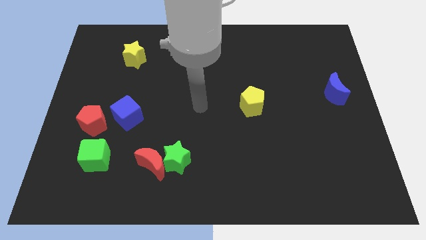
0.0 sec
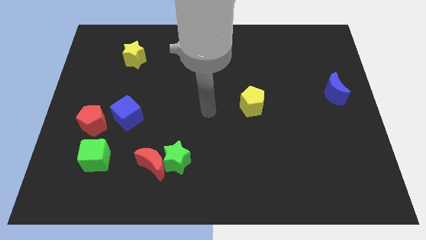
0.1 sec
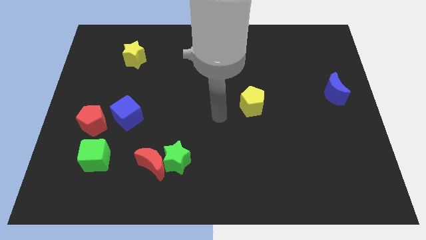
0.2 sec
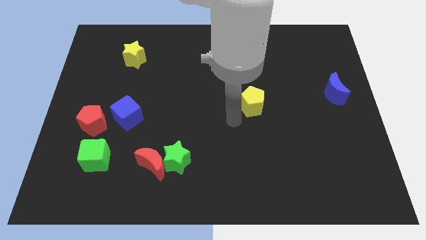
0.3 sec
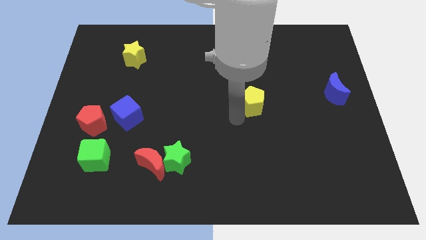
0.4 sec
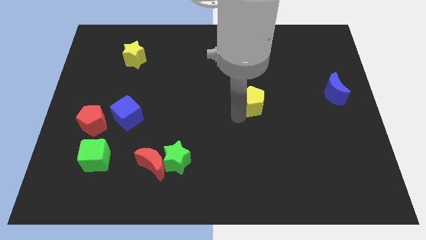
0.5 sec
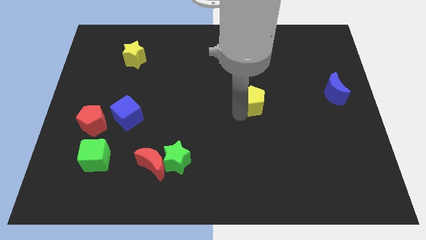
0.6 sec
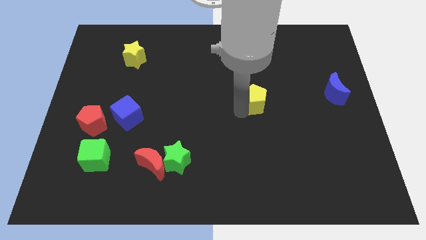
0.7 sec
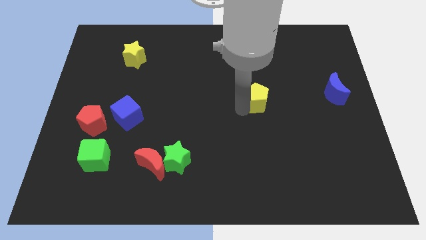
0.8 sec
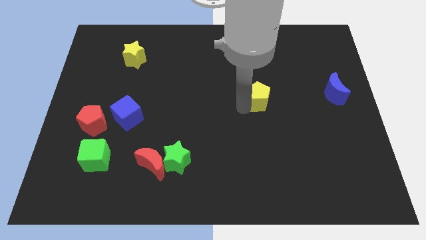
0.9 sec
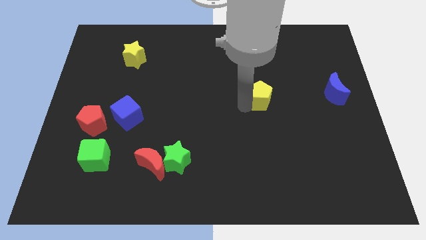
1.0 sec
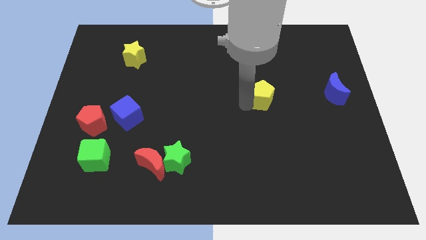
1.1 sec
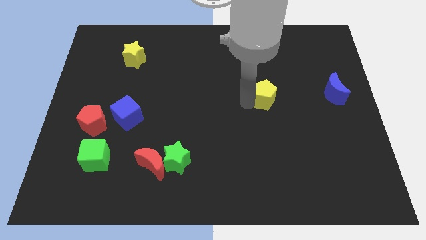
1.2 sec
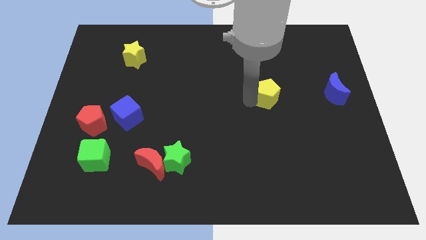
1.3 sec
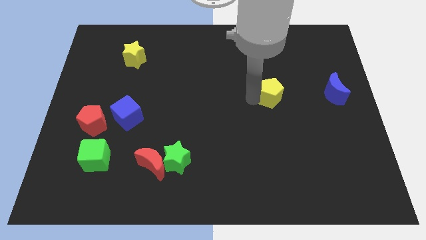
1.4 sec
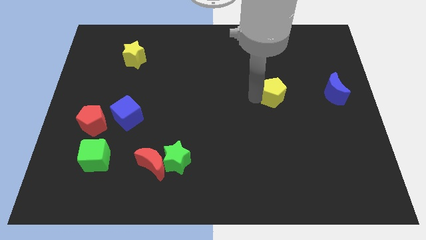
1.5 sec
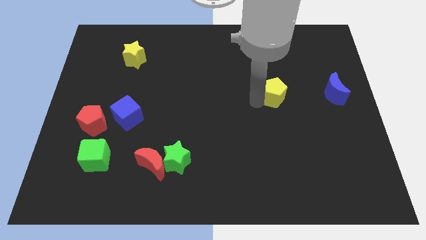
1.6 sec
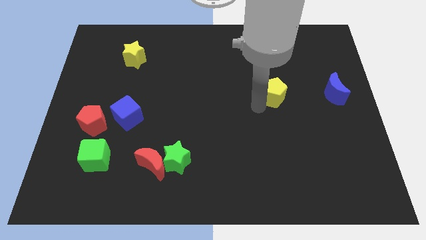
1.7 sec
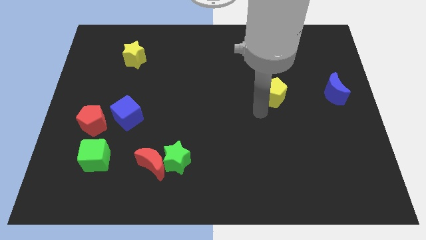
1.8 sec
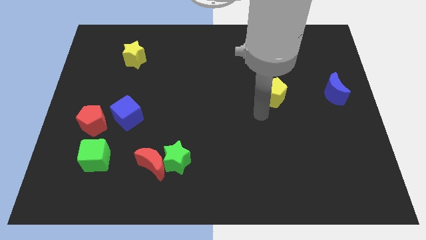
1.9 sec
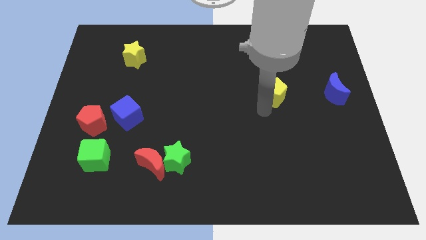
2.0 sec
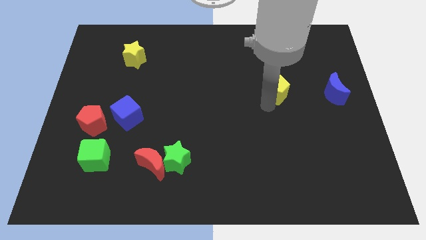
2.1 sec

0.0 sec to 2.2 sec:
move the yellow pentagon diagonally up and right a little bit

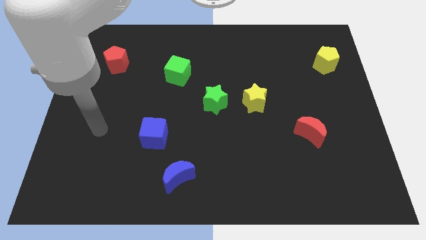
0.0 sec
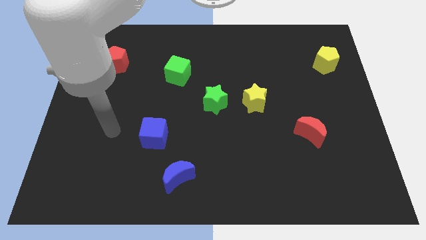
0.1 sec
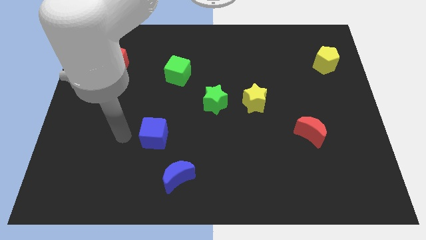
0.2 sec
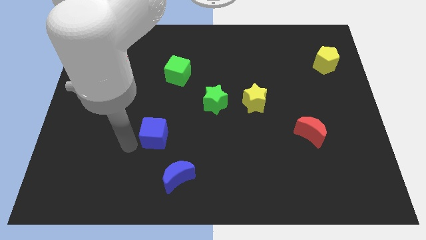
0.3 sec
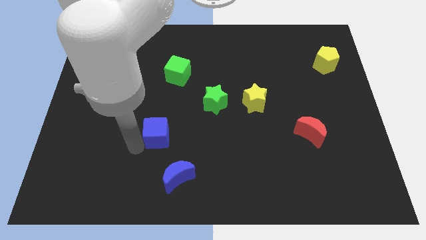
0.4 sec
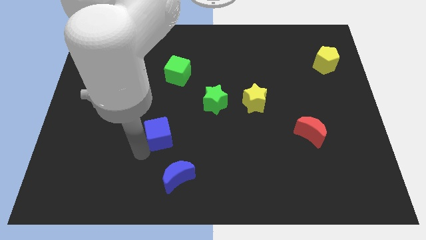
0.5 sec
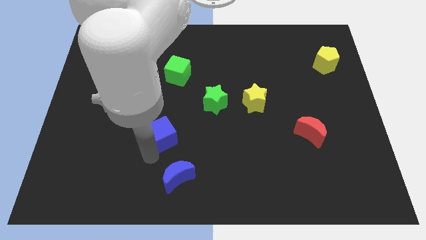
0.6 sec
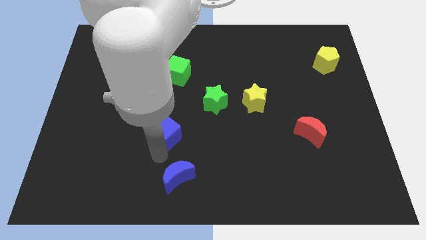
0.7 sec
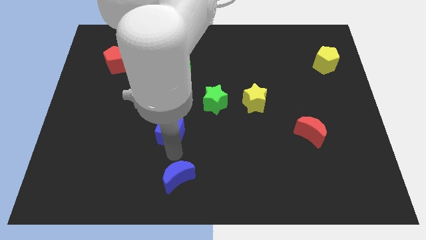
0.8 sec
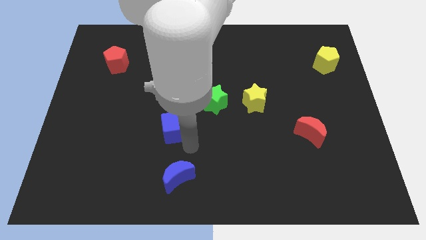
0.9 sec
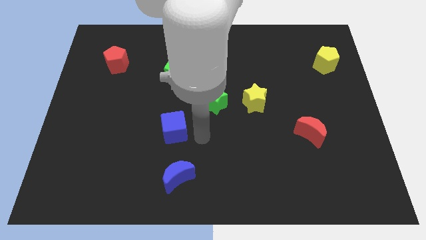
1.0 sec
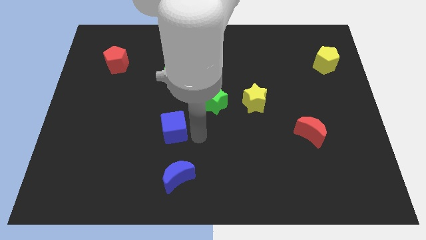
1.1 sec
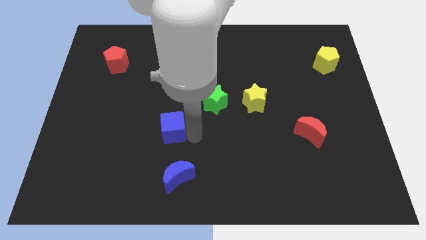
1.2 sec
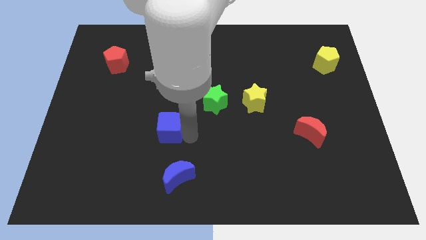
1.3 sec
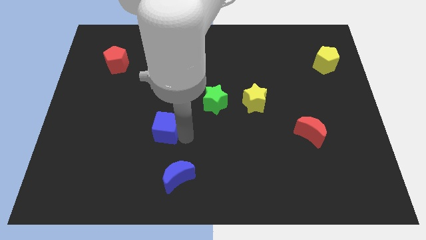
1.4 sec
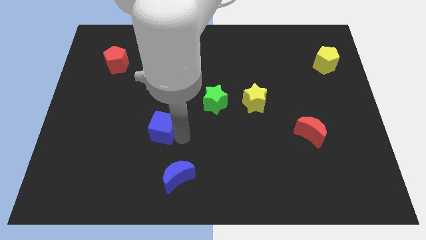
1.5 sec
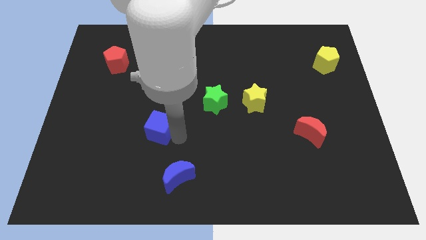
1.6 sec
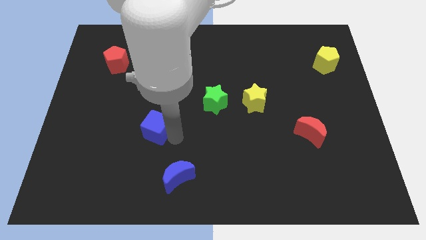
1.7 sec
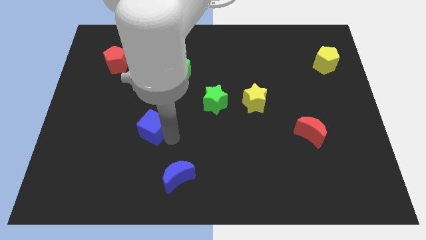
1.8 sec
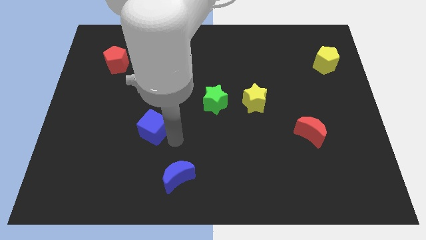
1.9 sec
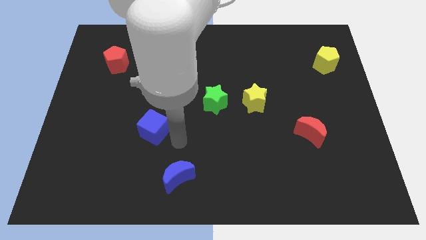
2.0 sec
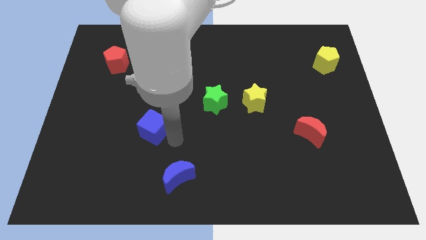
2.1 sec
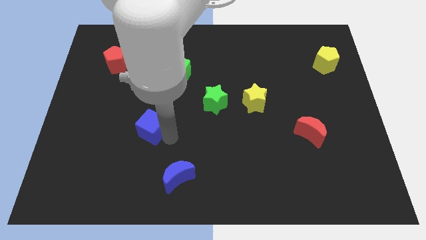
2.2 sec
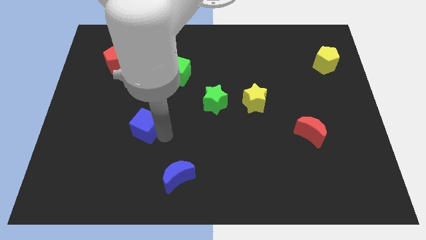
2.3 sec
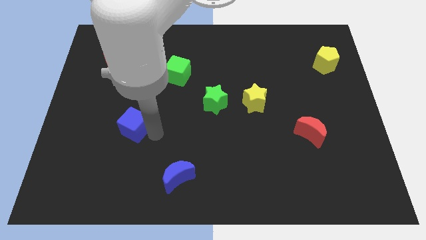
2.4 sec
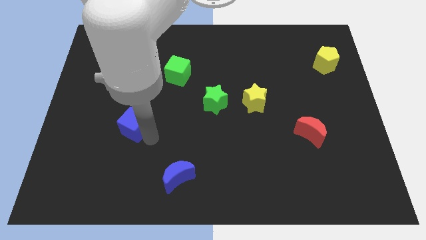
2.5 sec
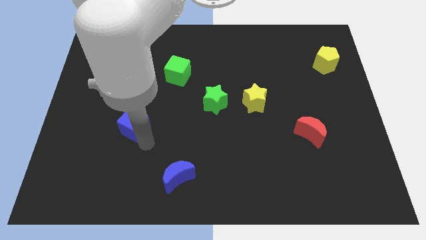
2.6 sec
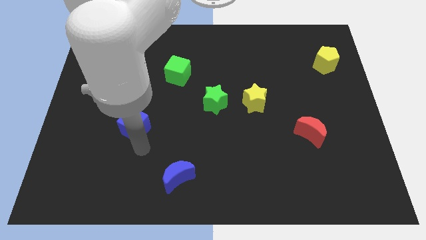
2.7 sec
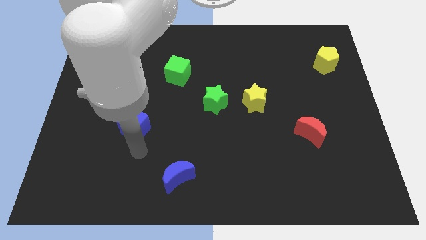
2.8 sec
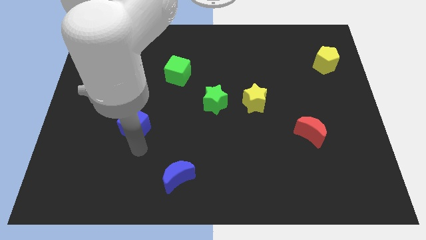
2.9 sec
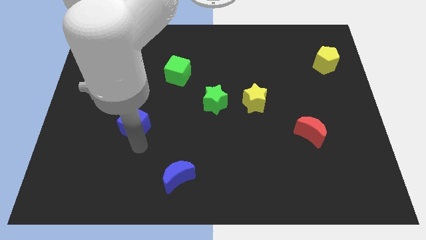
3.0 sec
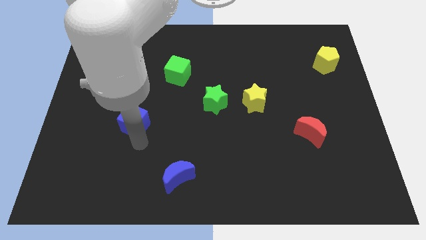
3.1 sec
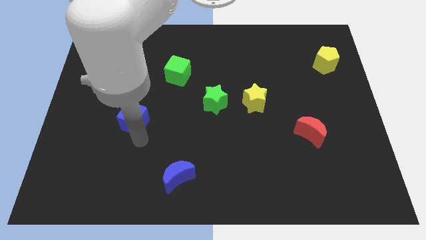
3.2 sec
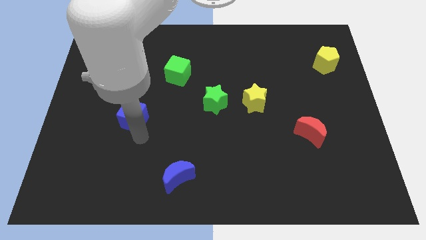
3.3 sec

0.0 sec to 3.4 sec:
move the blue cube slightly up and left

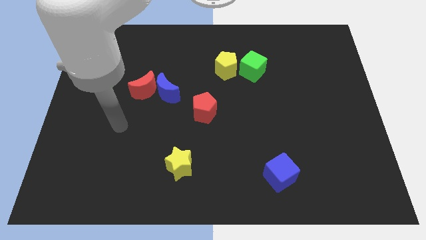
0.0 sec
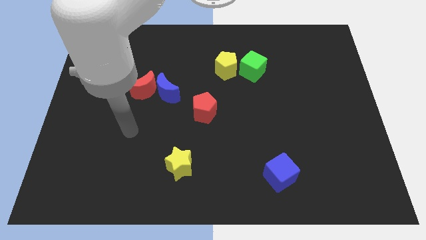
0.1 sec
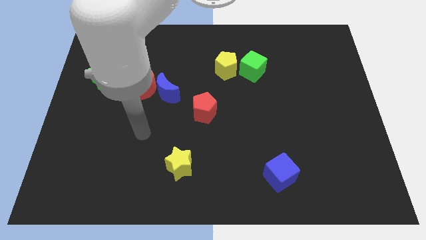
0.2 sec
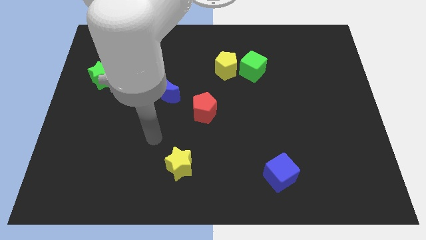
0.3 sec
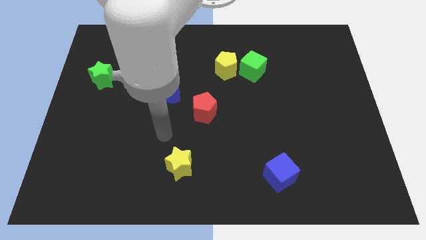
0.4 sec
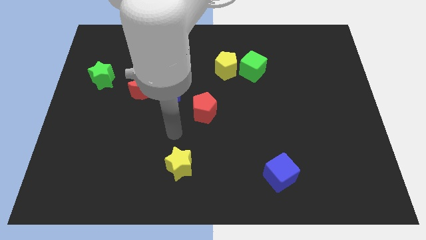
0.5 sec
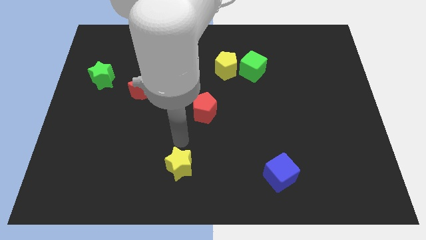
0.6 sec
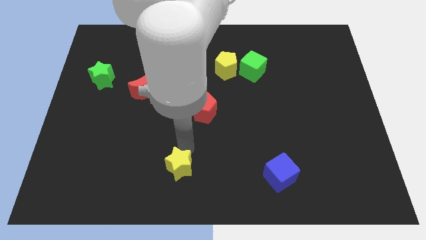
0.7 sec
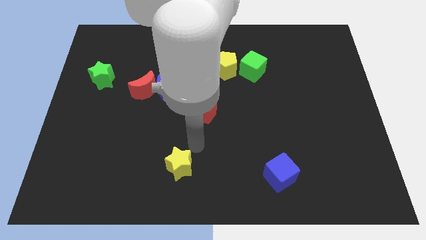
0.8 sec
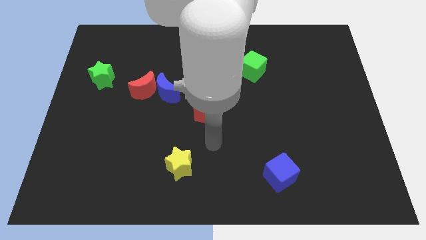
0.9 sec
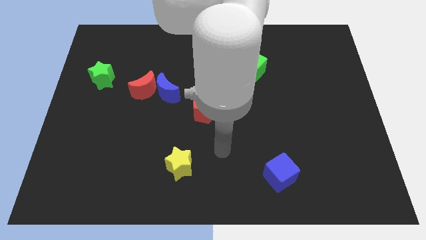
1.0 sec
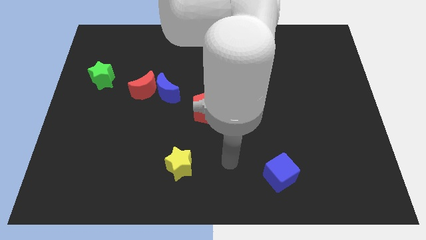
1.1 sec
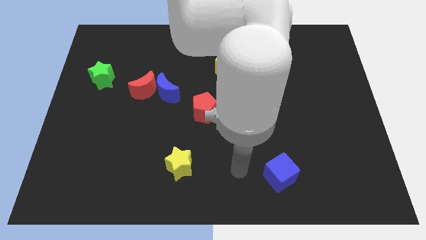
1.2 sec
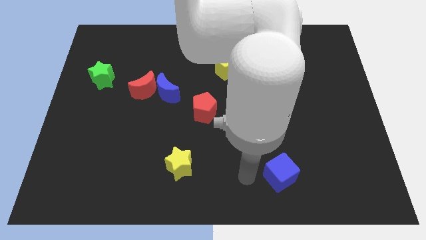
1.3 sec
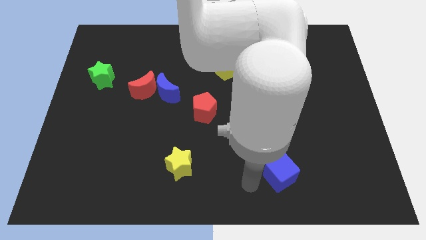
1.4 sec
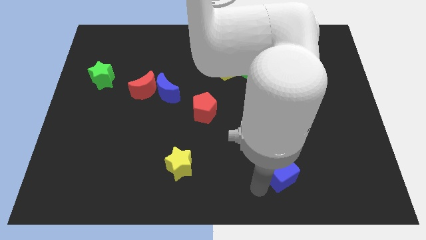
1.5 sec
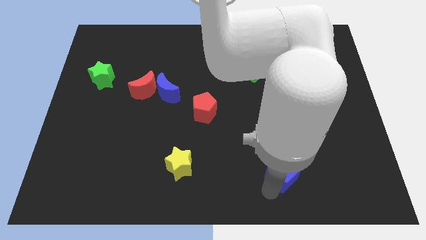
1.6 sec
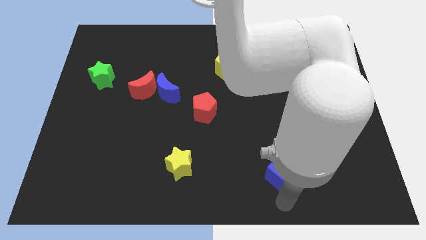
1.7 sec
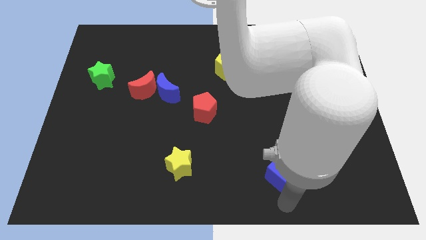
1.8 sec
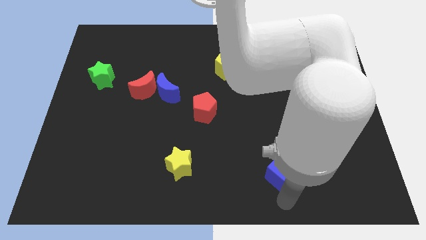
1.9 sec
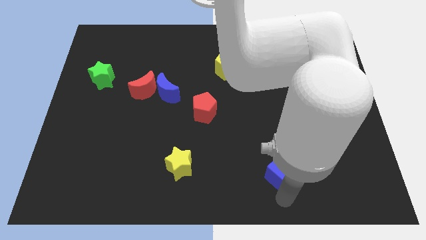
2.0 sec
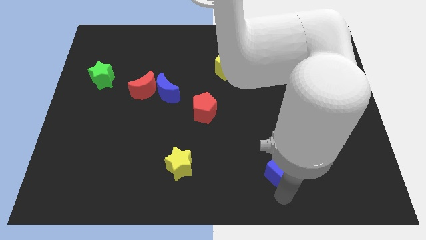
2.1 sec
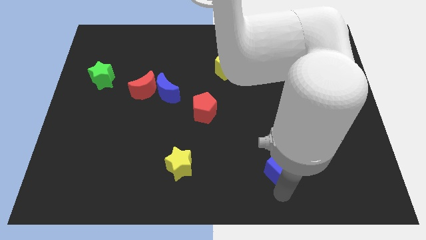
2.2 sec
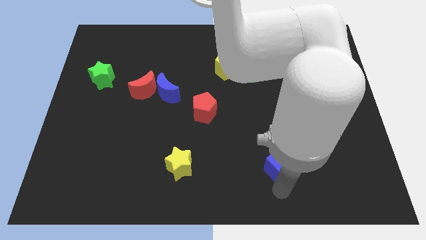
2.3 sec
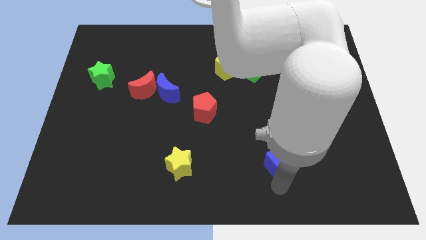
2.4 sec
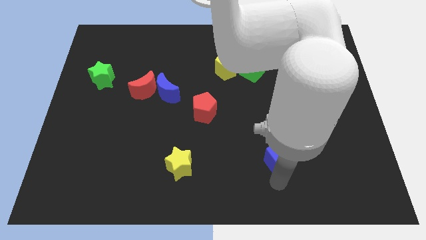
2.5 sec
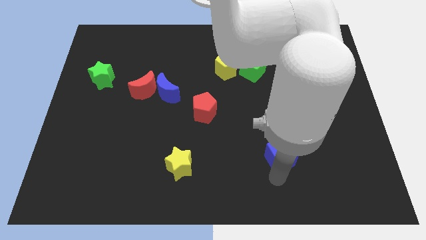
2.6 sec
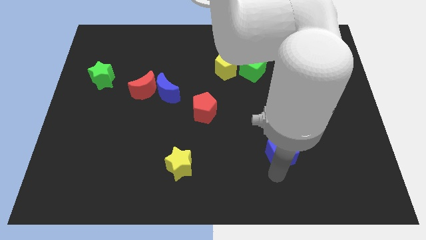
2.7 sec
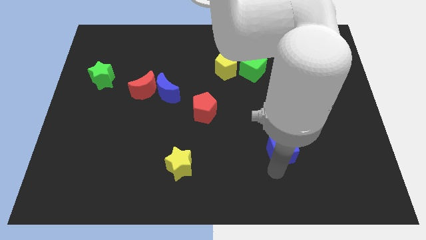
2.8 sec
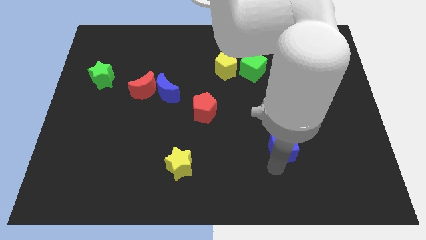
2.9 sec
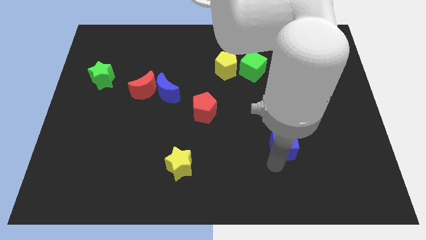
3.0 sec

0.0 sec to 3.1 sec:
slightly slide the blue cube up
